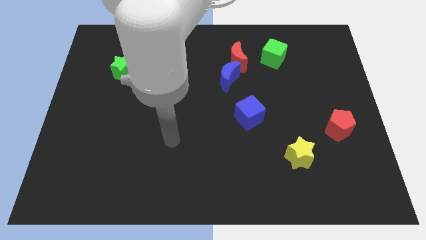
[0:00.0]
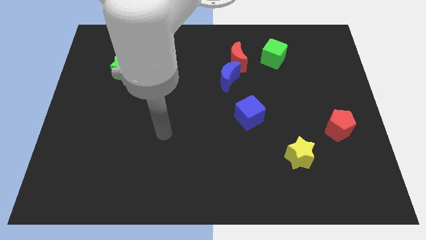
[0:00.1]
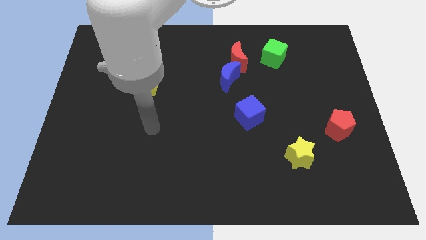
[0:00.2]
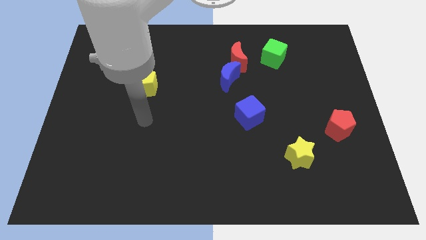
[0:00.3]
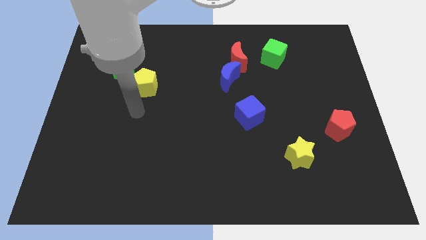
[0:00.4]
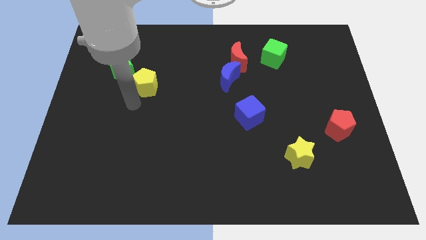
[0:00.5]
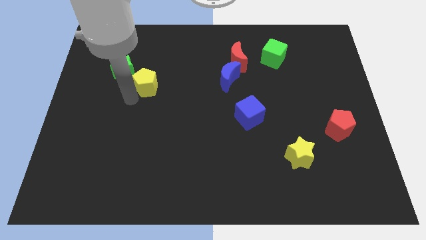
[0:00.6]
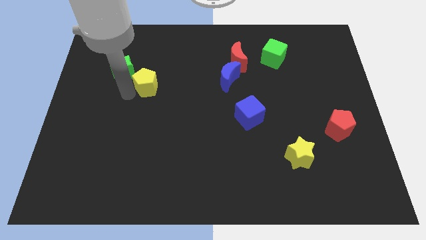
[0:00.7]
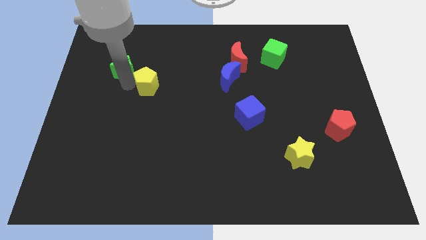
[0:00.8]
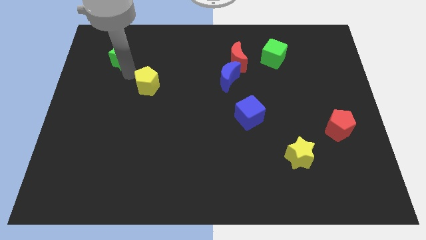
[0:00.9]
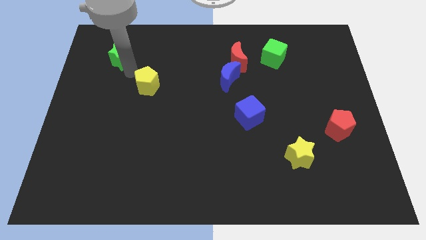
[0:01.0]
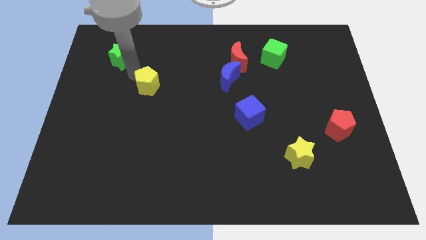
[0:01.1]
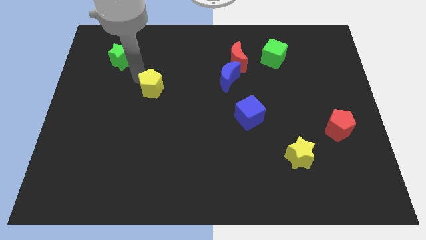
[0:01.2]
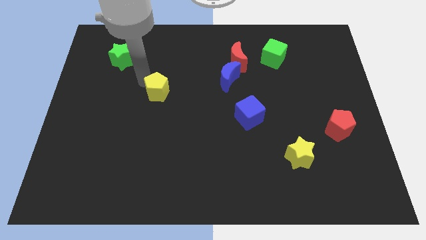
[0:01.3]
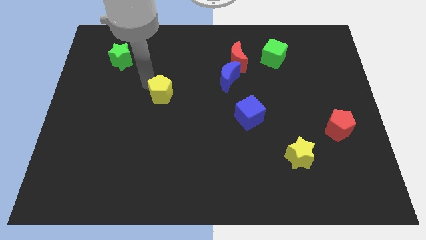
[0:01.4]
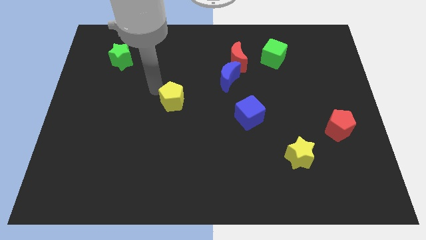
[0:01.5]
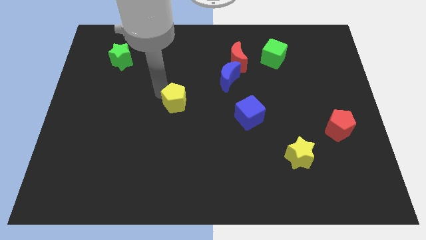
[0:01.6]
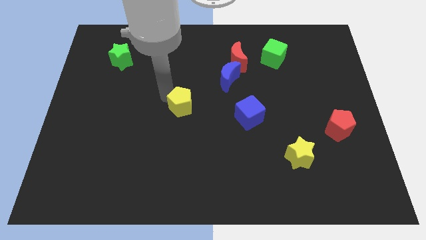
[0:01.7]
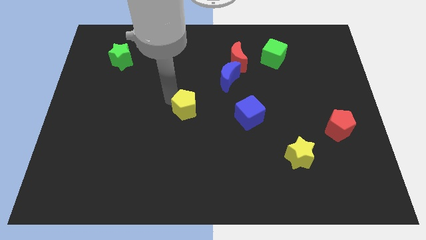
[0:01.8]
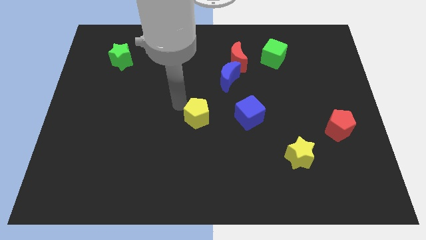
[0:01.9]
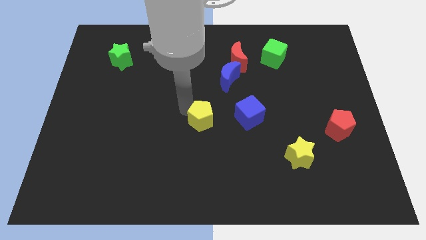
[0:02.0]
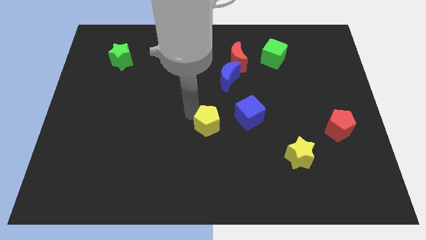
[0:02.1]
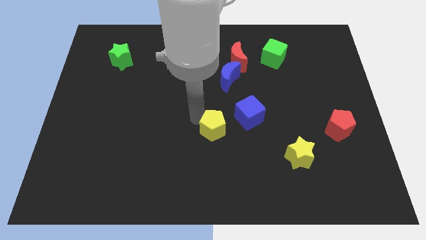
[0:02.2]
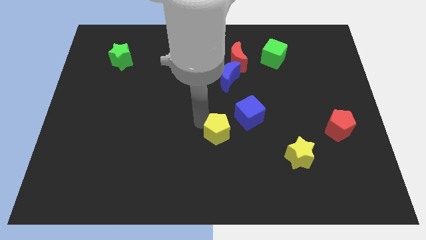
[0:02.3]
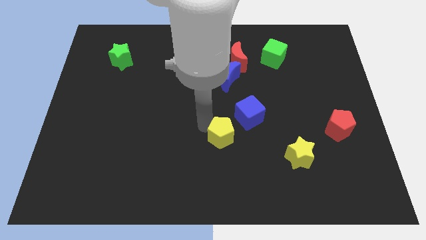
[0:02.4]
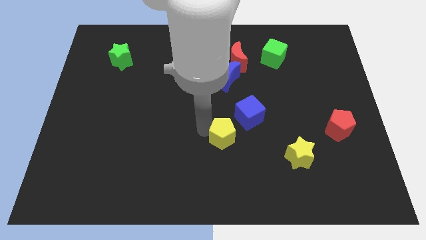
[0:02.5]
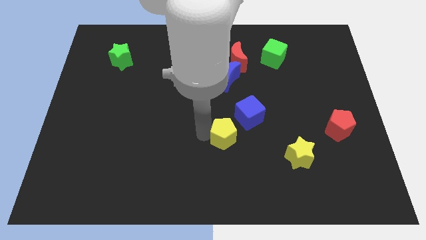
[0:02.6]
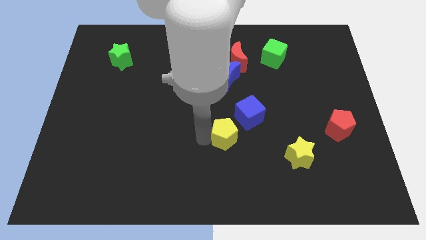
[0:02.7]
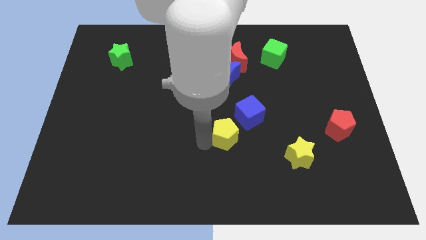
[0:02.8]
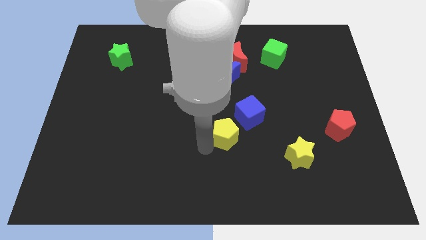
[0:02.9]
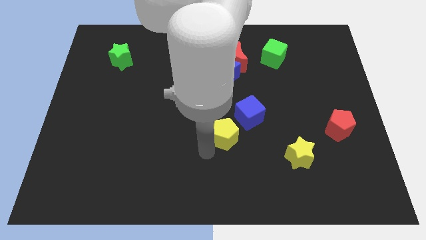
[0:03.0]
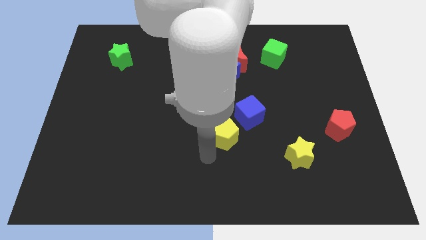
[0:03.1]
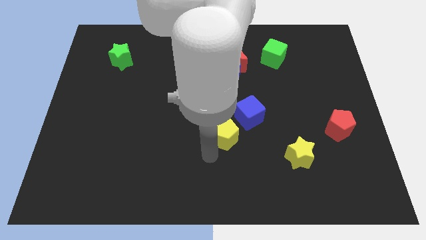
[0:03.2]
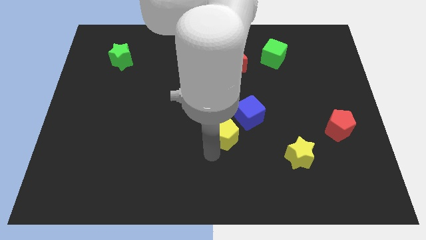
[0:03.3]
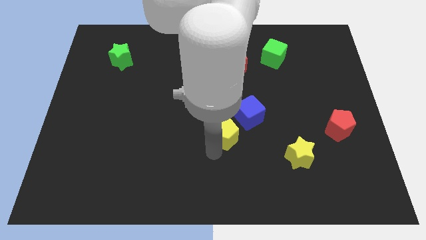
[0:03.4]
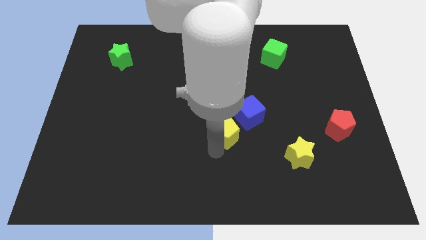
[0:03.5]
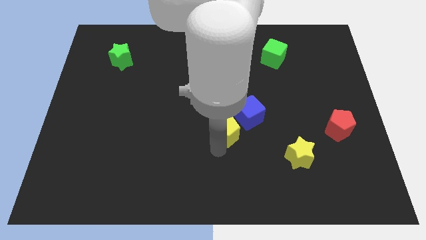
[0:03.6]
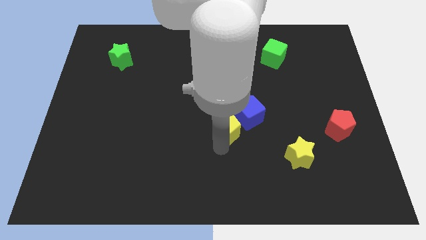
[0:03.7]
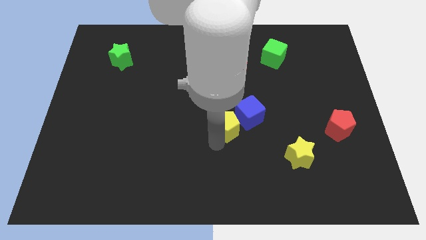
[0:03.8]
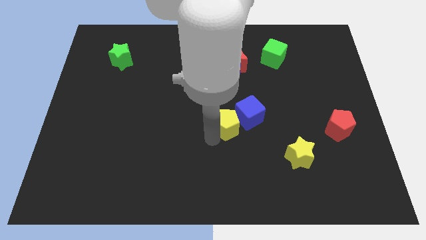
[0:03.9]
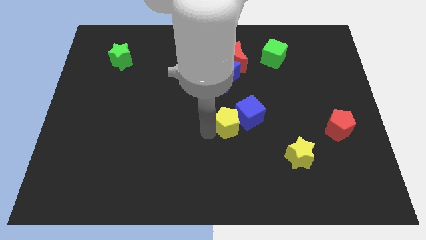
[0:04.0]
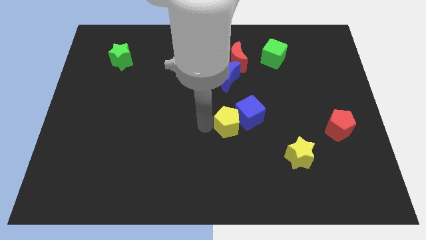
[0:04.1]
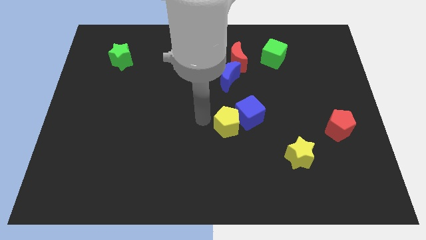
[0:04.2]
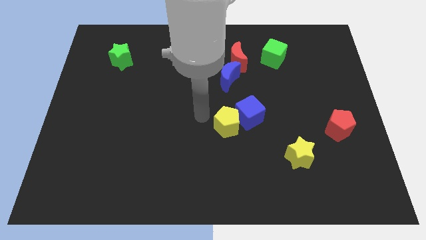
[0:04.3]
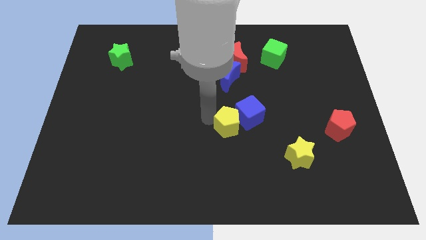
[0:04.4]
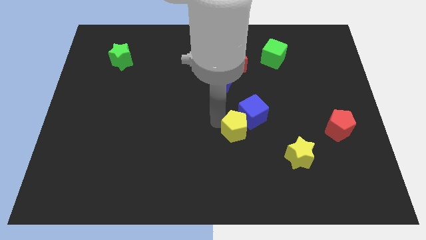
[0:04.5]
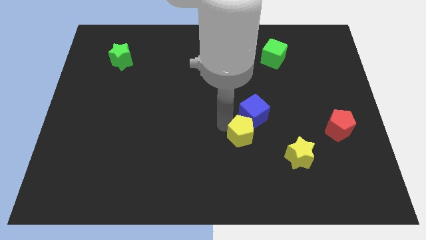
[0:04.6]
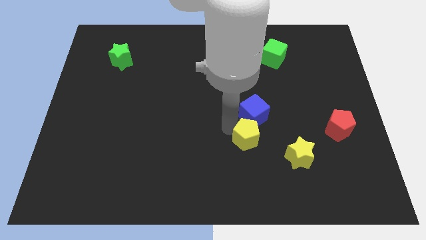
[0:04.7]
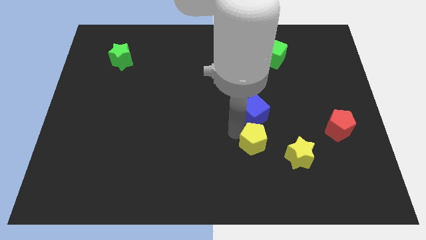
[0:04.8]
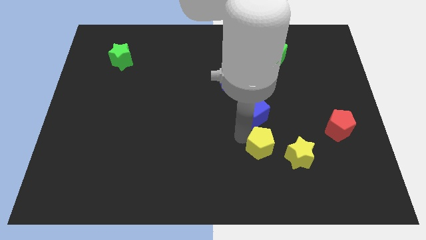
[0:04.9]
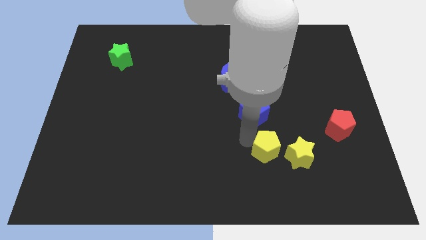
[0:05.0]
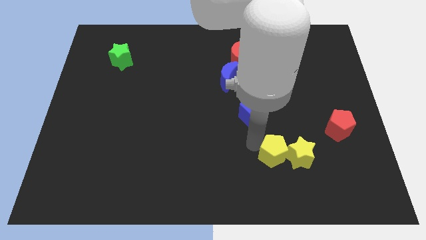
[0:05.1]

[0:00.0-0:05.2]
push the yellow pentagon close to the yellow star

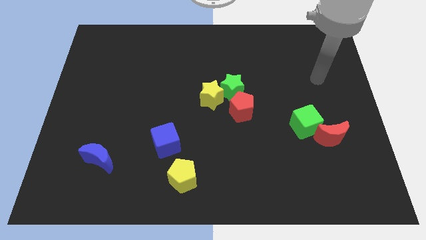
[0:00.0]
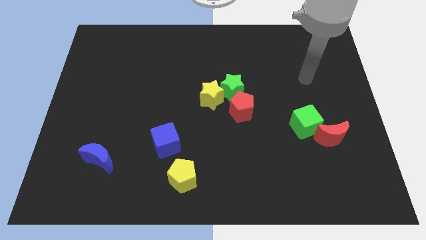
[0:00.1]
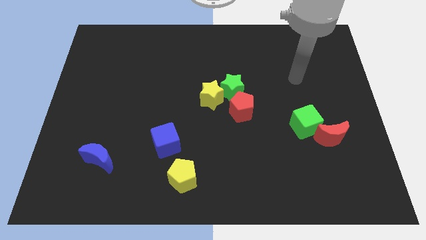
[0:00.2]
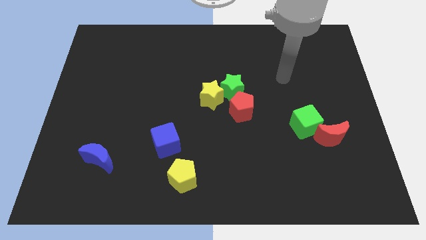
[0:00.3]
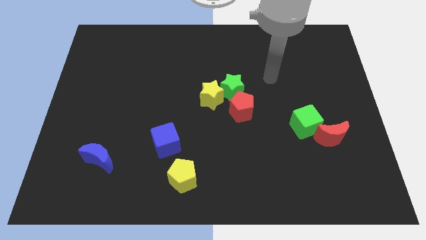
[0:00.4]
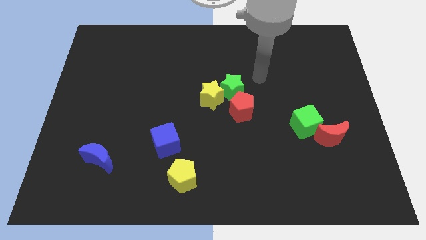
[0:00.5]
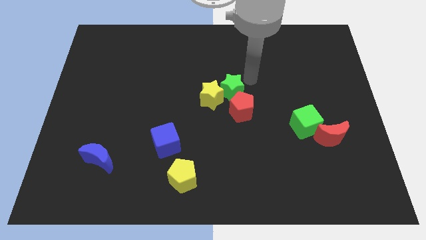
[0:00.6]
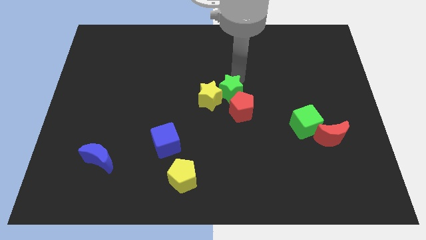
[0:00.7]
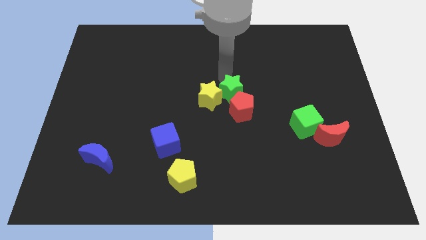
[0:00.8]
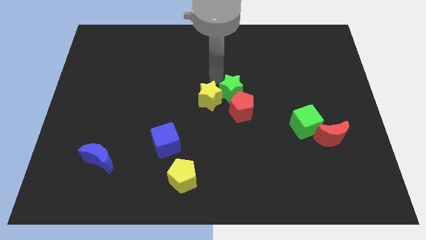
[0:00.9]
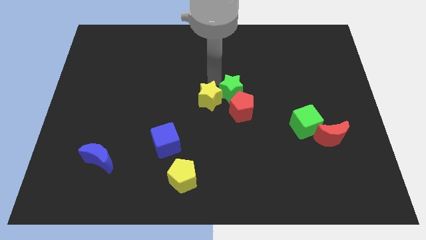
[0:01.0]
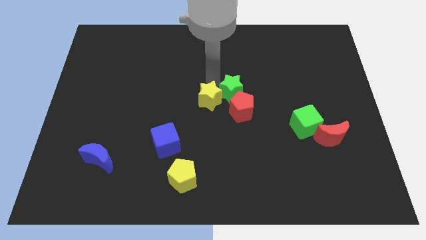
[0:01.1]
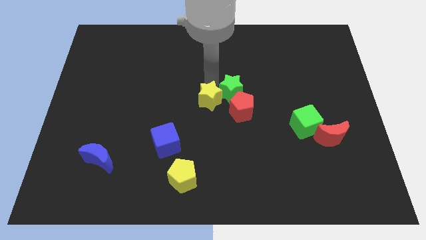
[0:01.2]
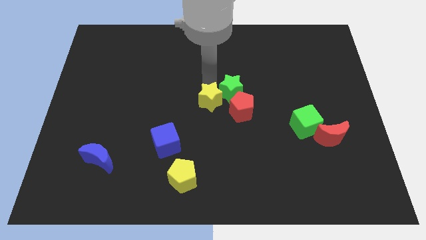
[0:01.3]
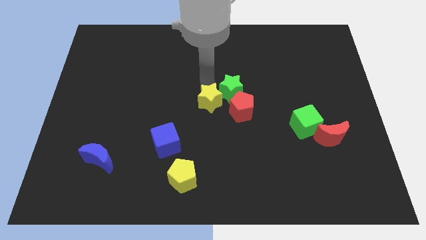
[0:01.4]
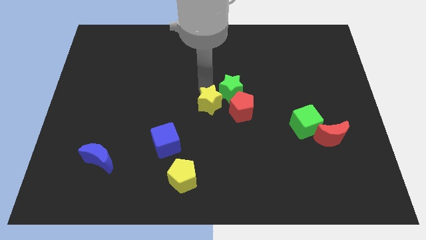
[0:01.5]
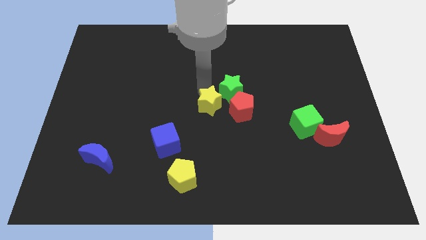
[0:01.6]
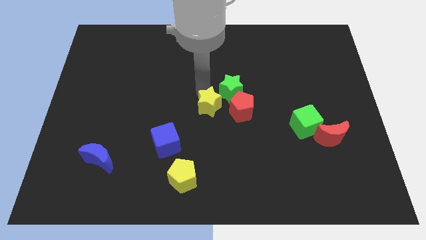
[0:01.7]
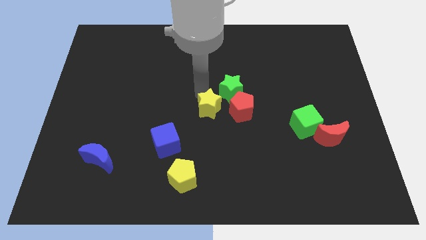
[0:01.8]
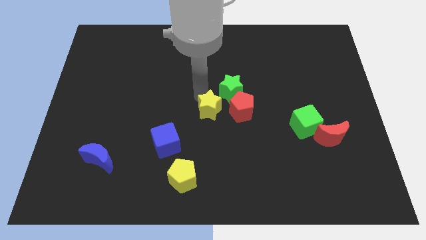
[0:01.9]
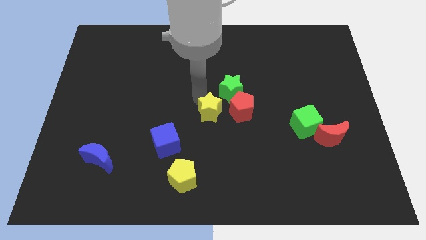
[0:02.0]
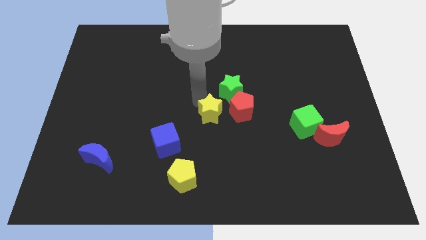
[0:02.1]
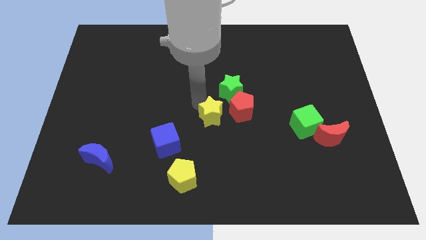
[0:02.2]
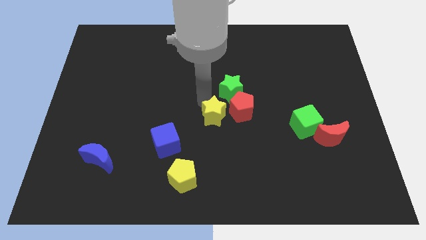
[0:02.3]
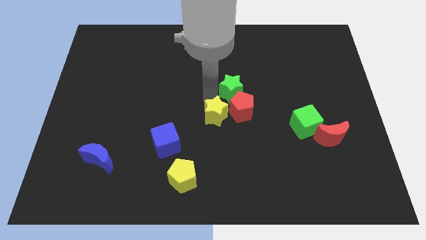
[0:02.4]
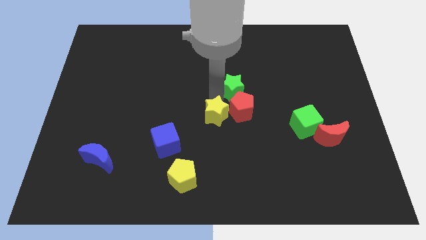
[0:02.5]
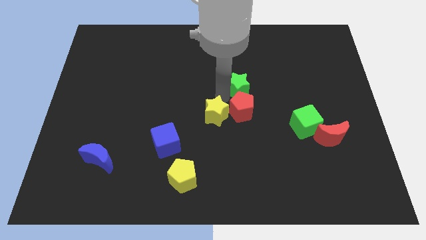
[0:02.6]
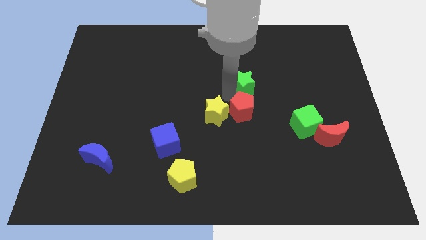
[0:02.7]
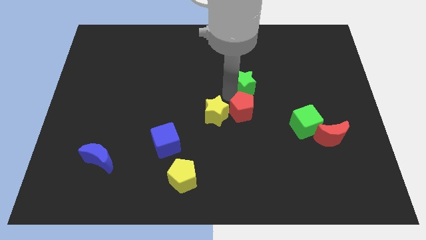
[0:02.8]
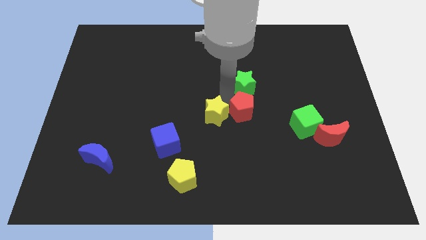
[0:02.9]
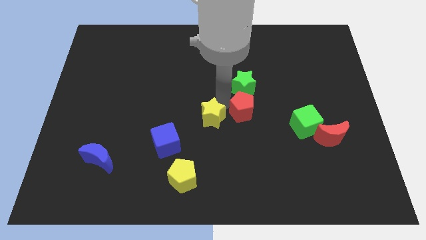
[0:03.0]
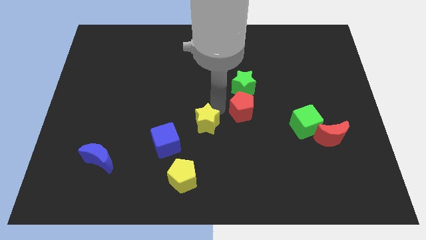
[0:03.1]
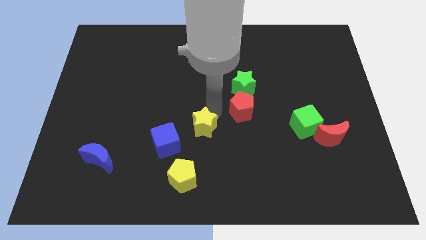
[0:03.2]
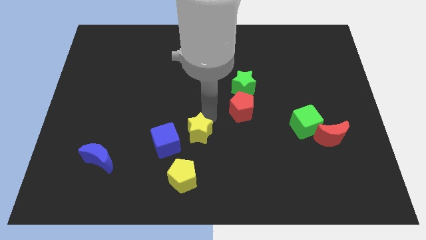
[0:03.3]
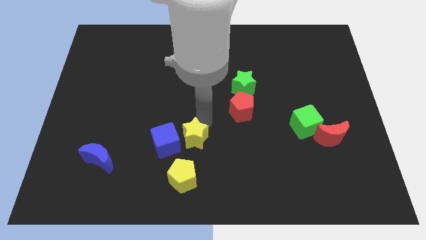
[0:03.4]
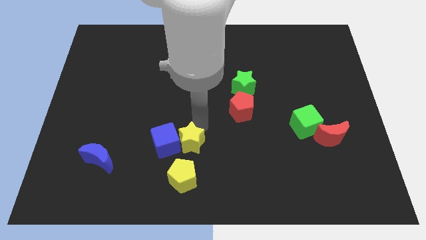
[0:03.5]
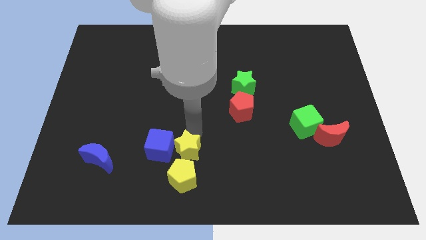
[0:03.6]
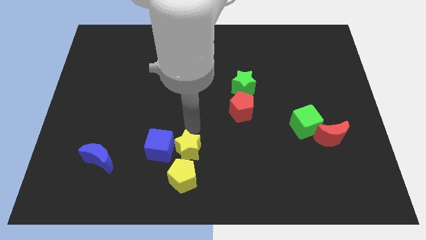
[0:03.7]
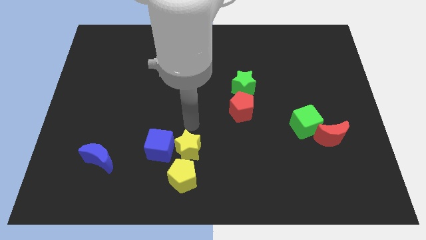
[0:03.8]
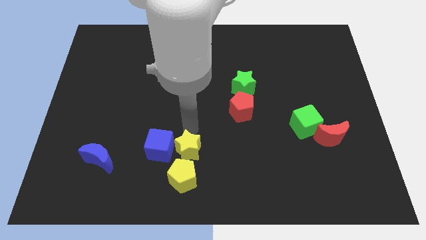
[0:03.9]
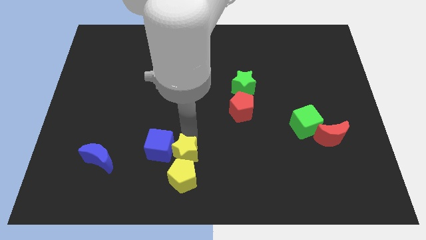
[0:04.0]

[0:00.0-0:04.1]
slide the yellow star to the yellow pentagon
